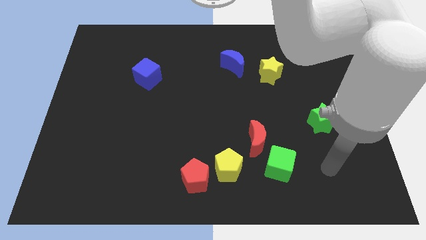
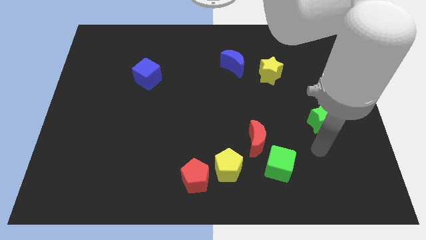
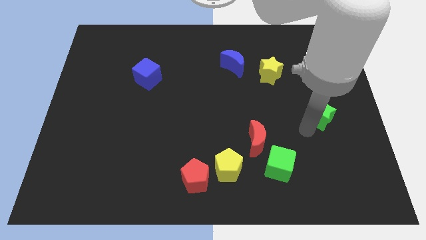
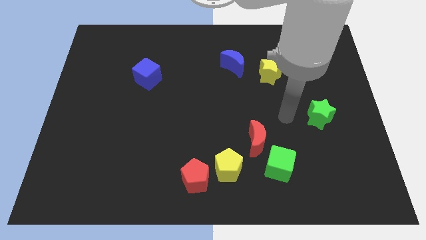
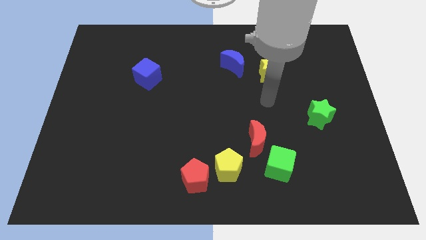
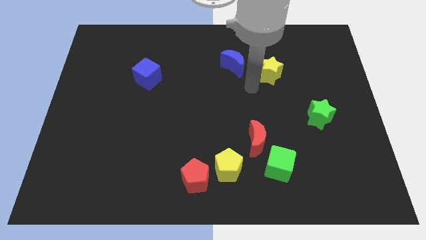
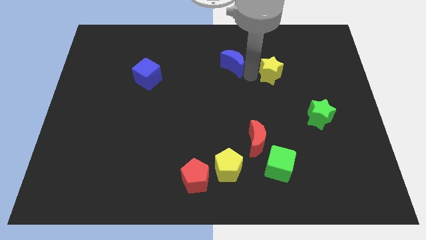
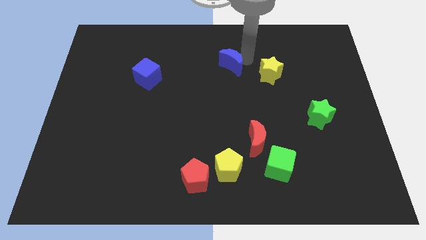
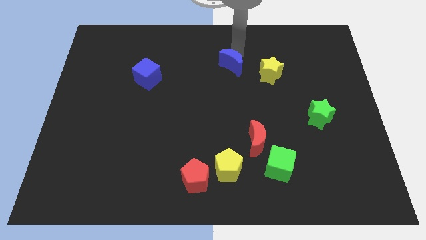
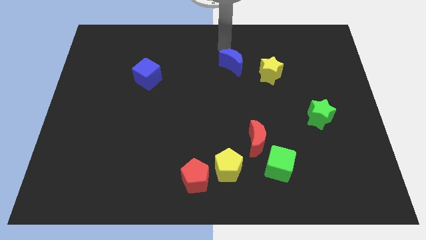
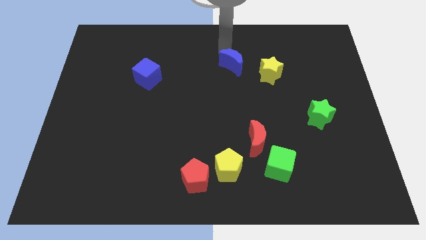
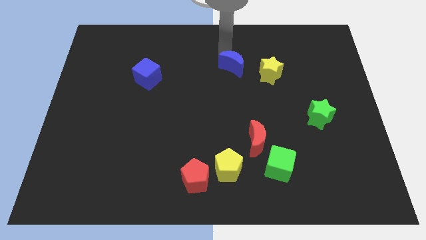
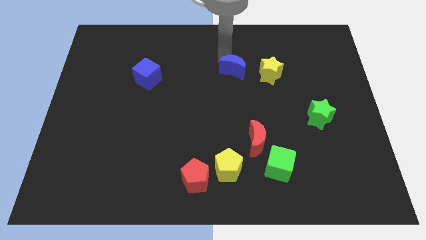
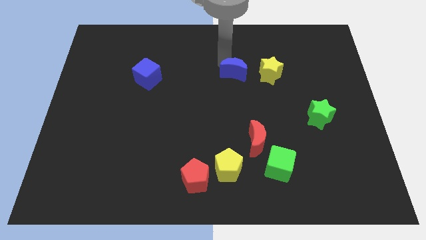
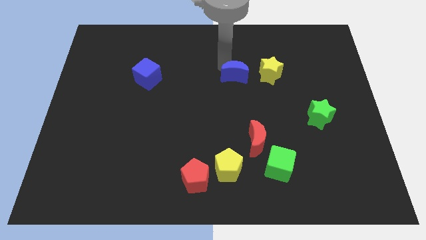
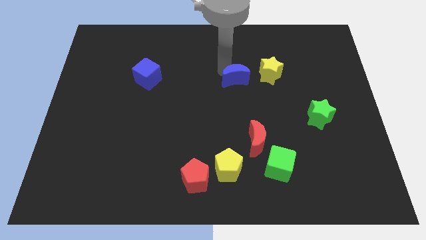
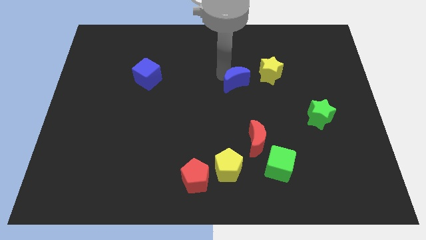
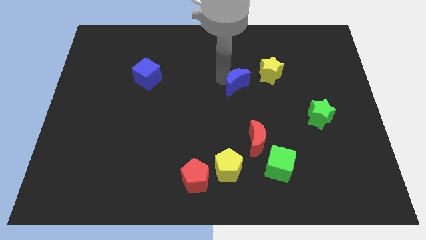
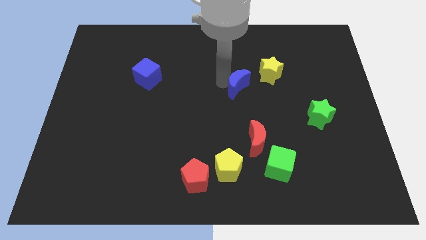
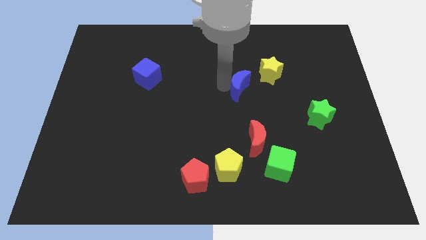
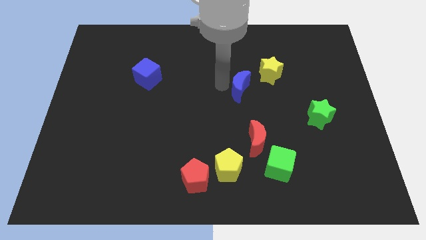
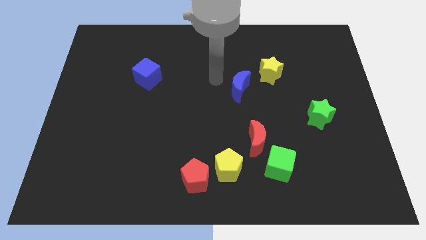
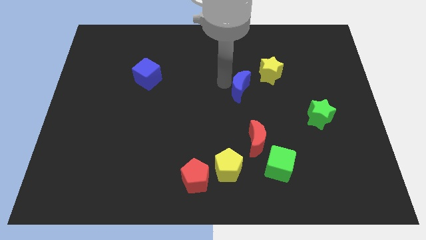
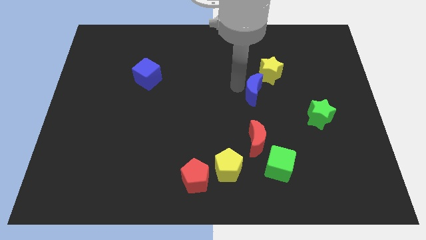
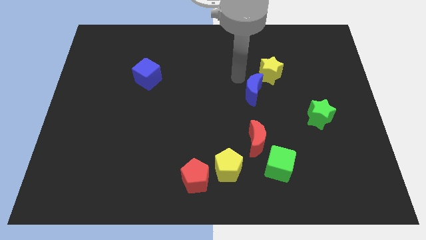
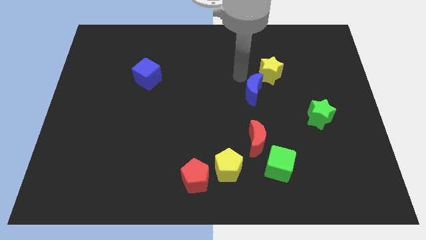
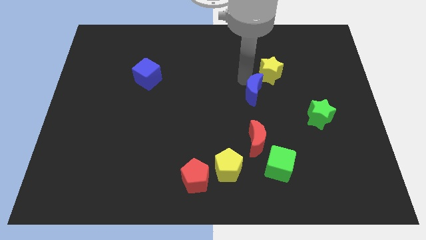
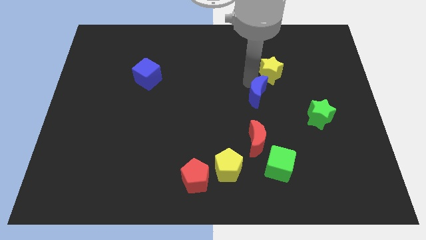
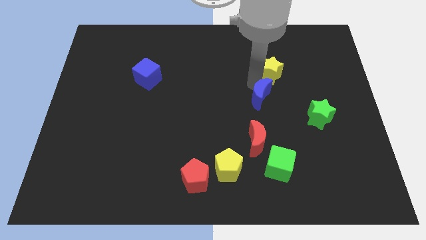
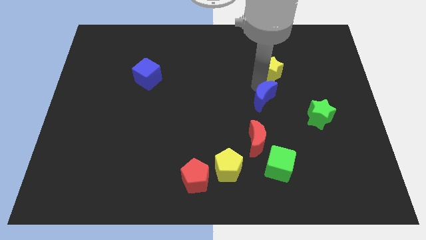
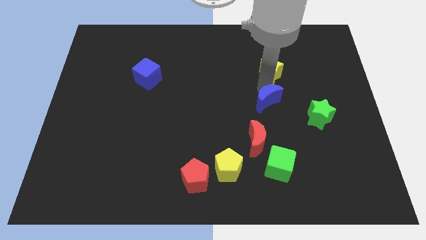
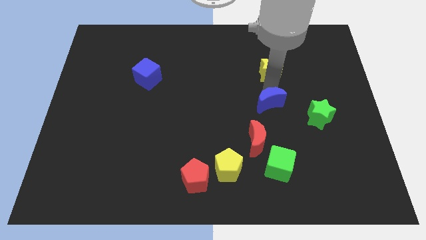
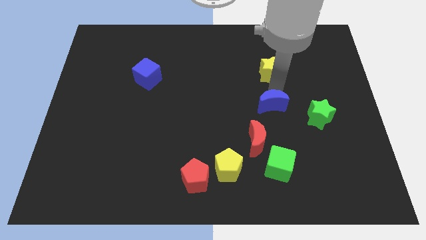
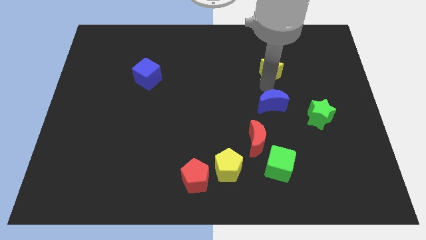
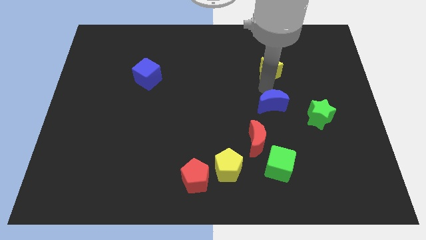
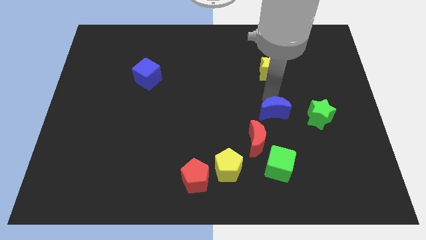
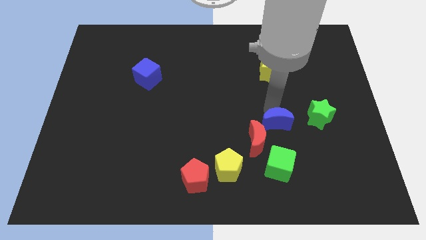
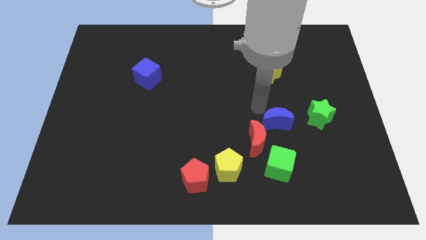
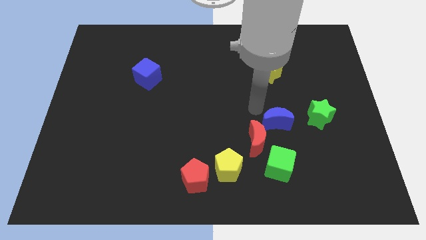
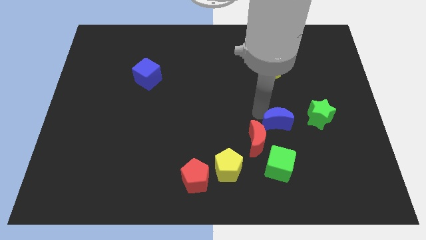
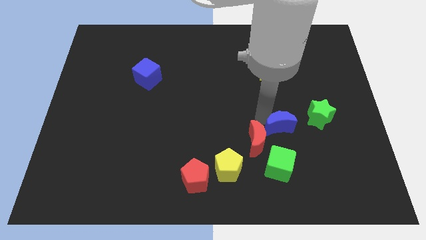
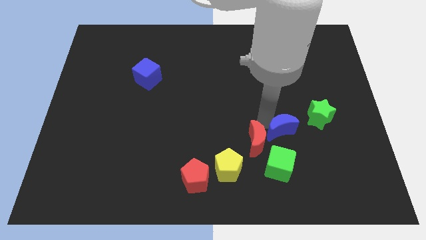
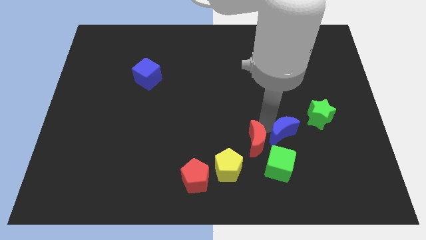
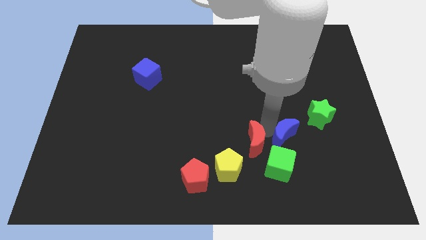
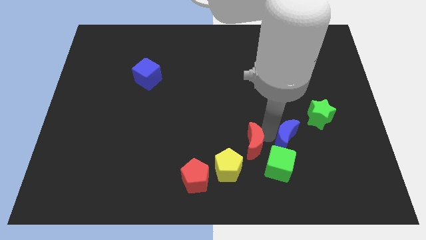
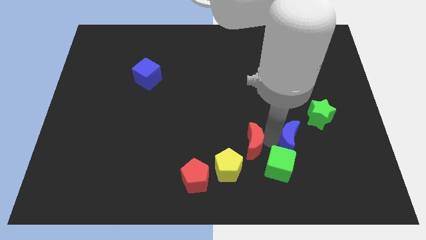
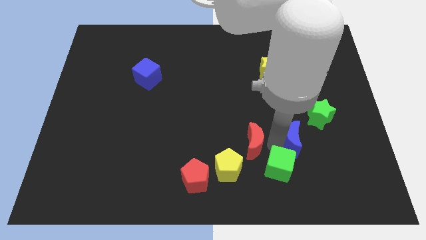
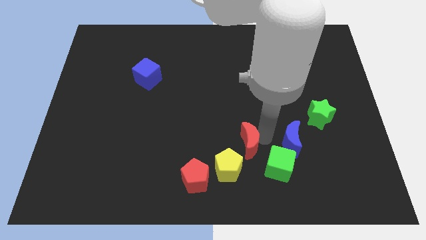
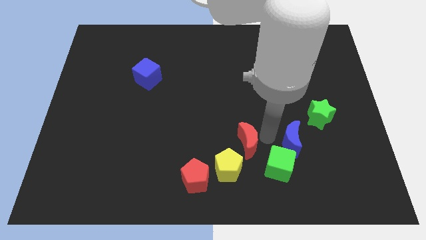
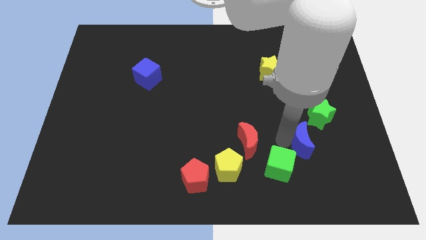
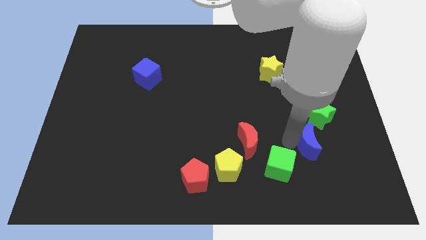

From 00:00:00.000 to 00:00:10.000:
move the blue moon to the bottom side of the green star

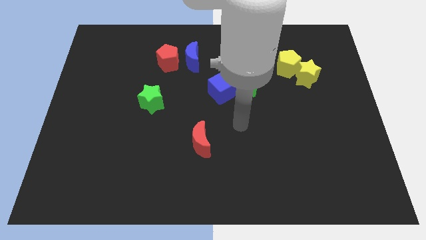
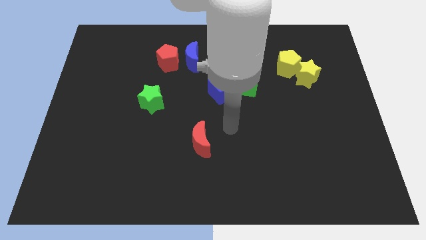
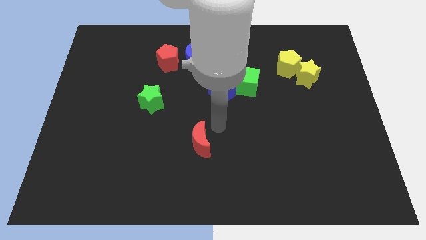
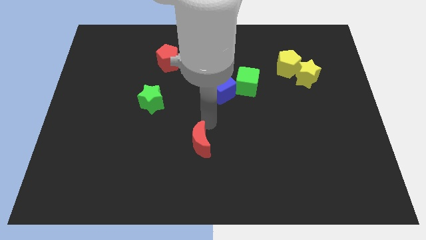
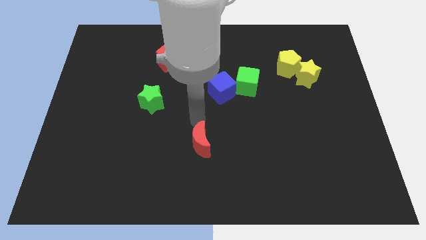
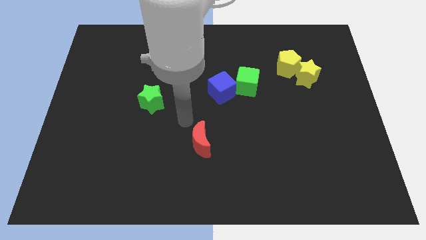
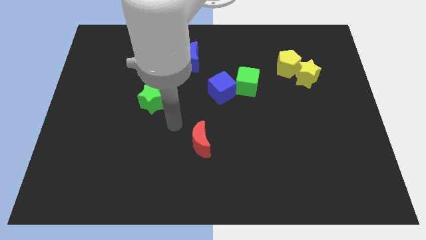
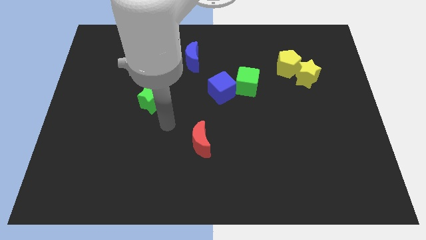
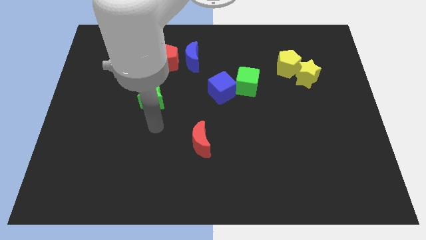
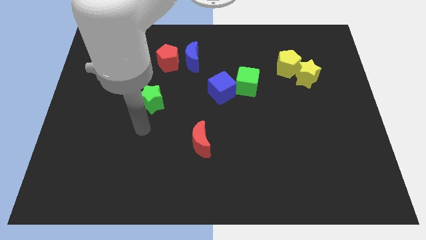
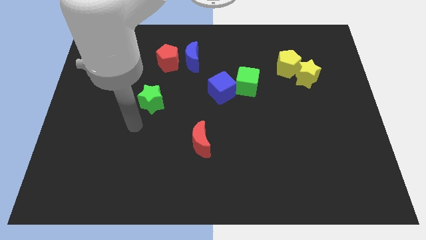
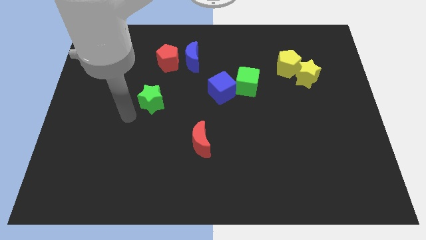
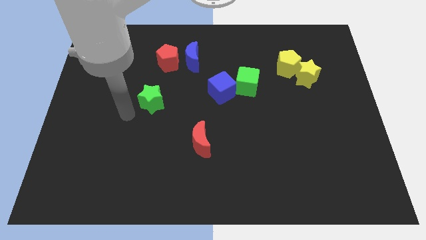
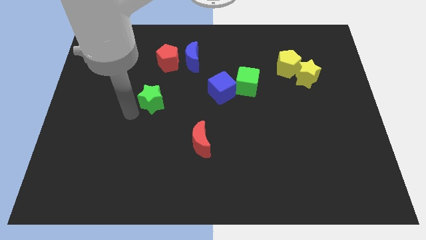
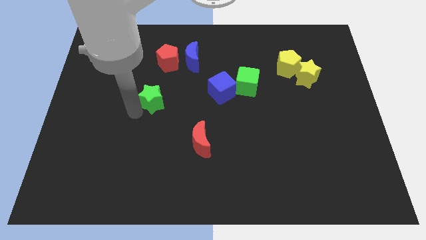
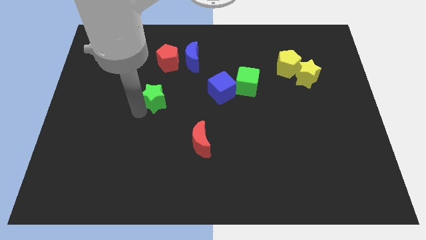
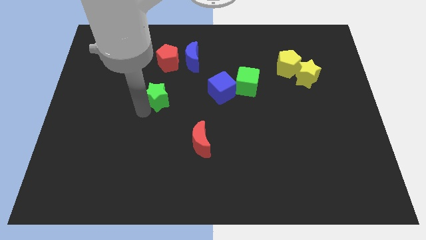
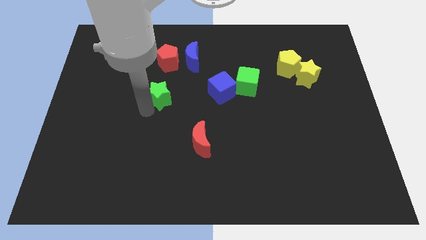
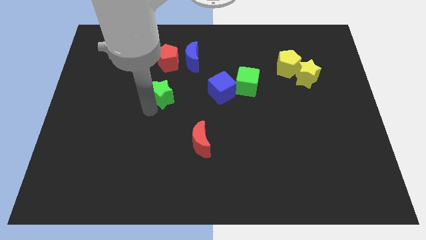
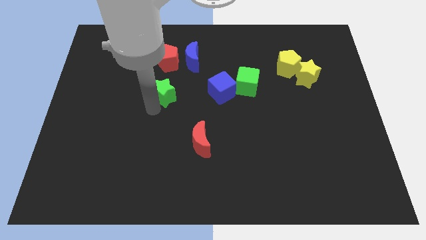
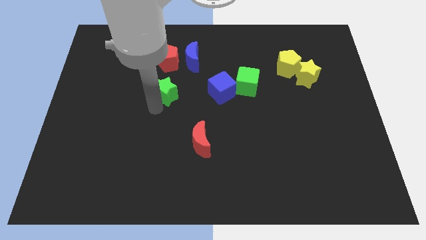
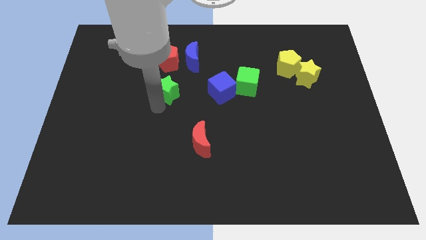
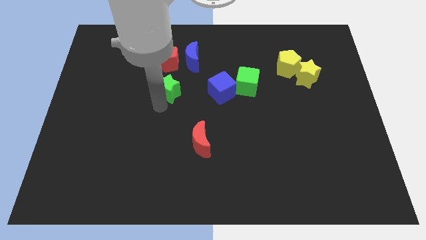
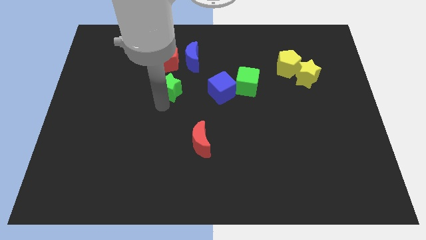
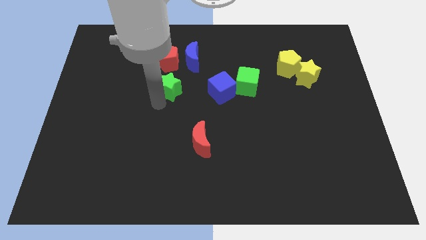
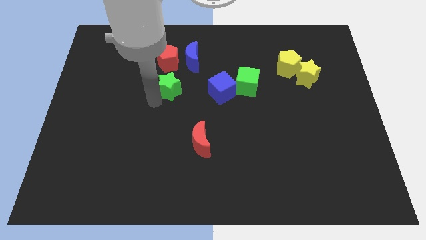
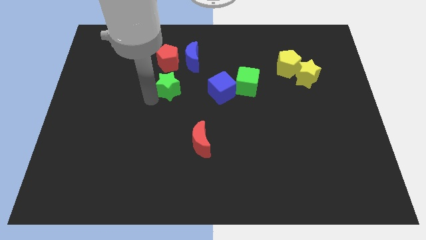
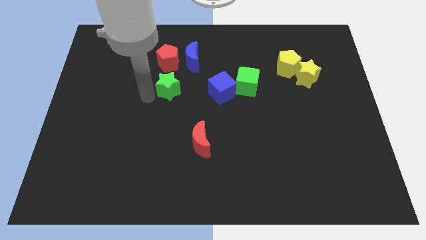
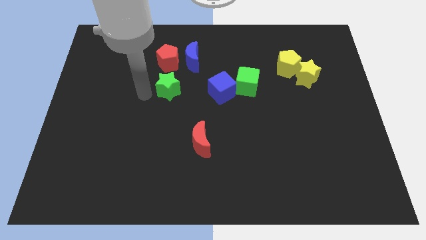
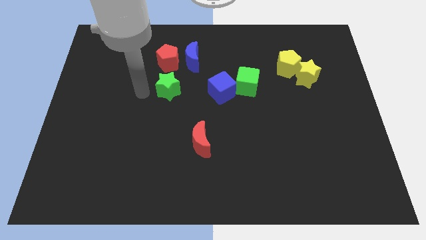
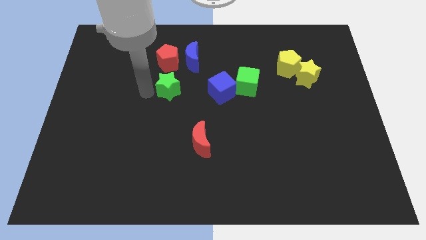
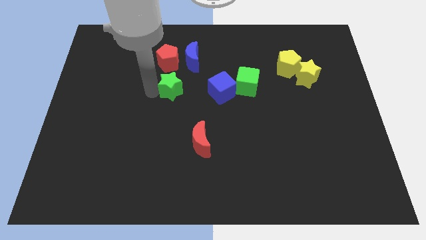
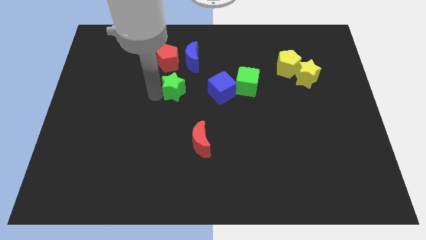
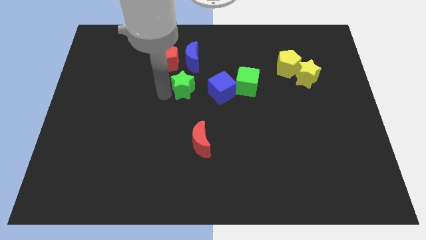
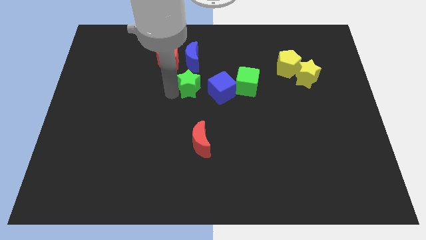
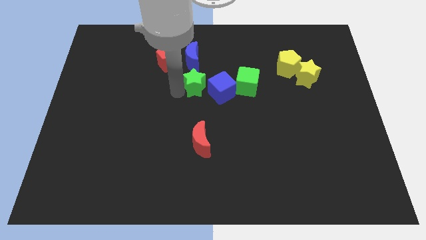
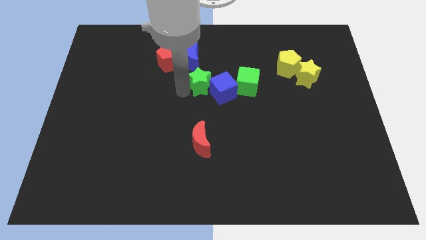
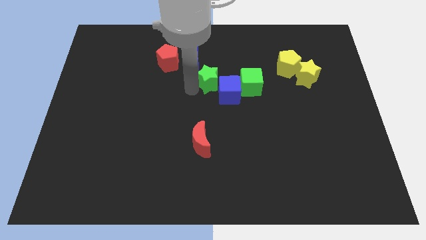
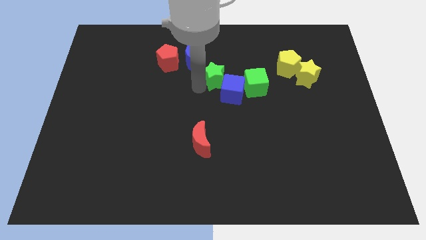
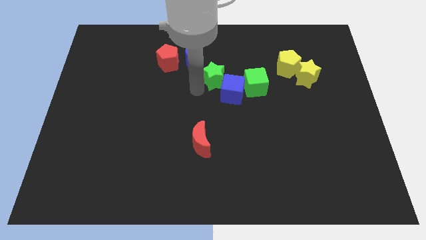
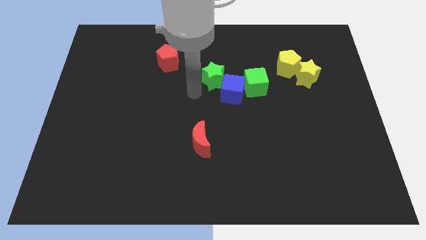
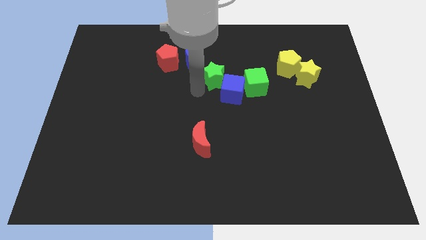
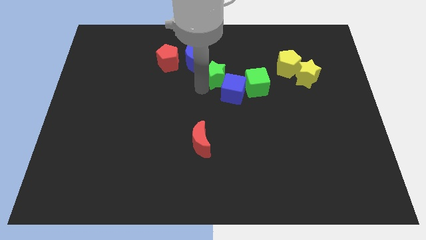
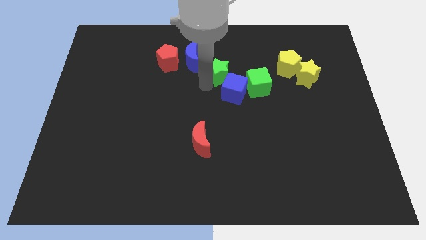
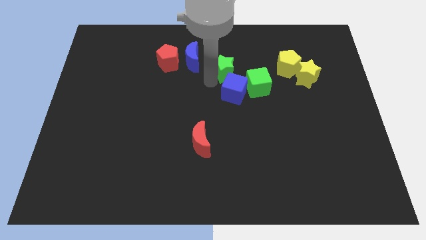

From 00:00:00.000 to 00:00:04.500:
slide the green star just left of the yellow pentagon
